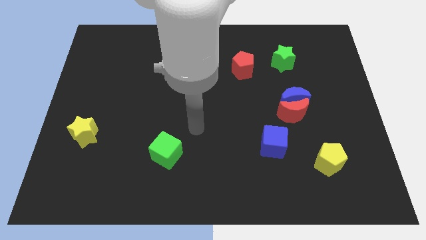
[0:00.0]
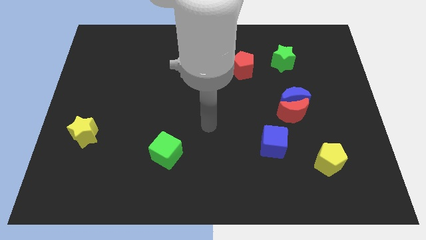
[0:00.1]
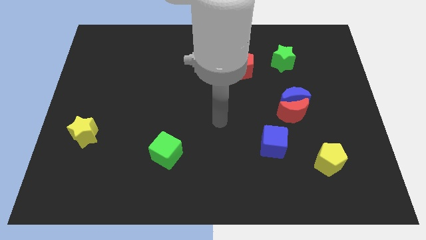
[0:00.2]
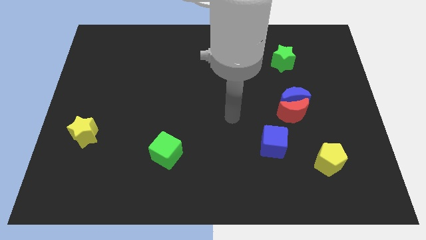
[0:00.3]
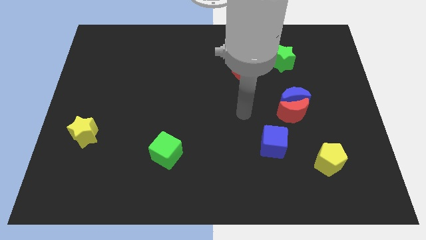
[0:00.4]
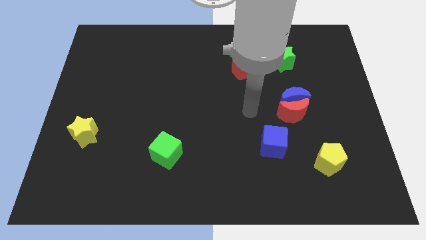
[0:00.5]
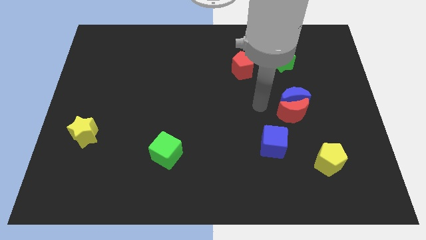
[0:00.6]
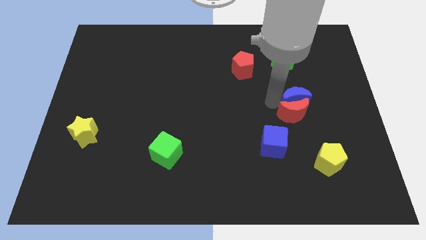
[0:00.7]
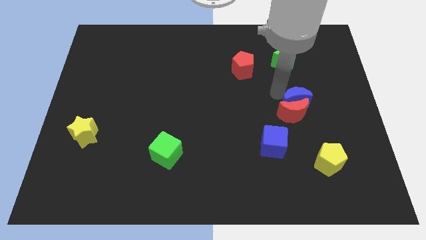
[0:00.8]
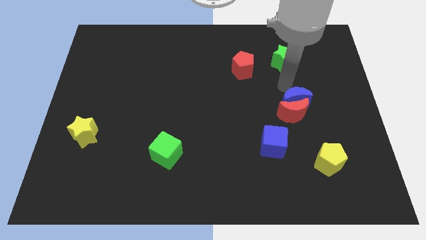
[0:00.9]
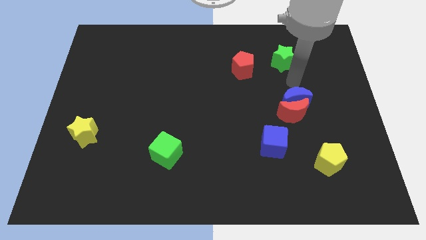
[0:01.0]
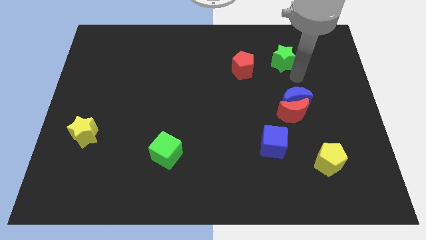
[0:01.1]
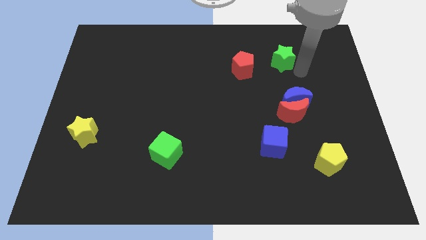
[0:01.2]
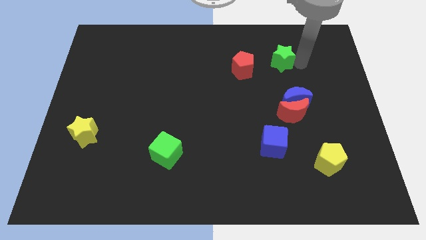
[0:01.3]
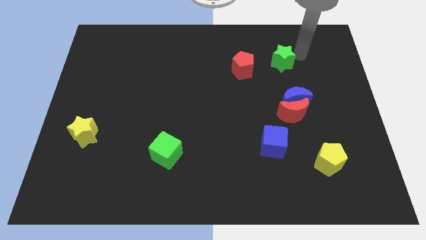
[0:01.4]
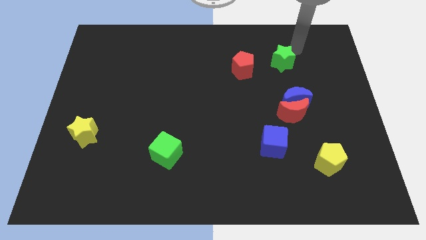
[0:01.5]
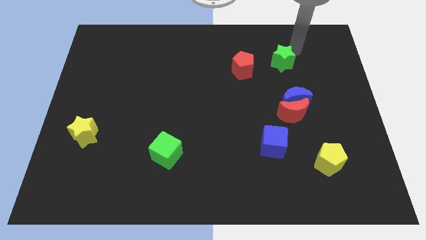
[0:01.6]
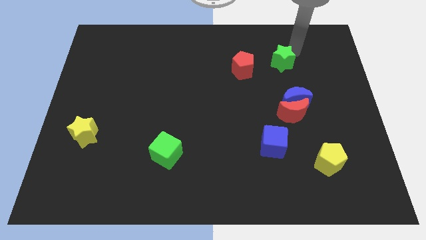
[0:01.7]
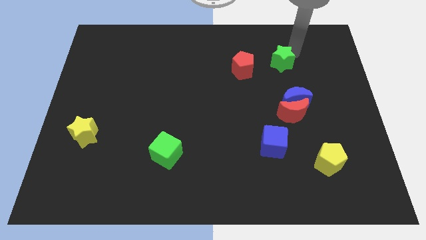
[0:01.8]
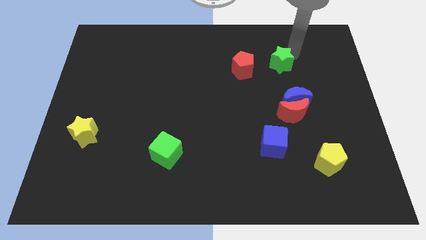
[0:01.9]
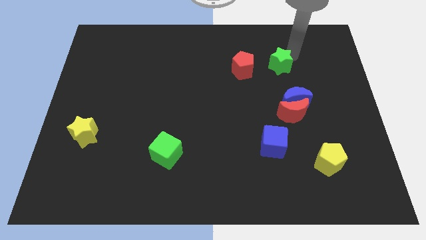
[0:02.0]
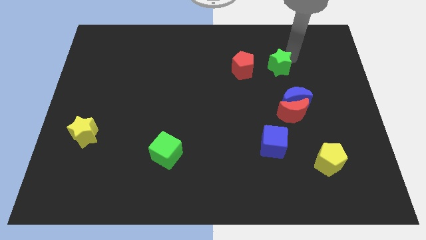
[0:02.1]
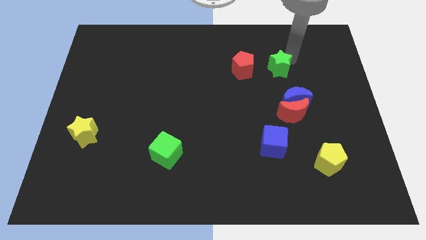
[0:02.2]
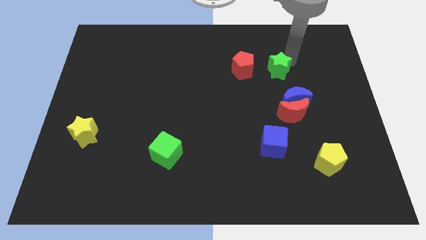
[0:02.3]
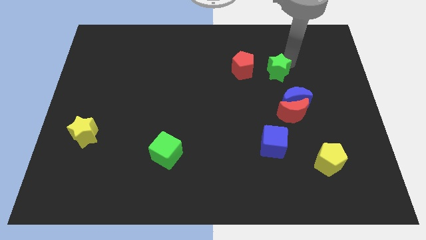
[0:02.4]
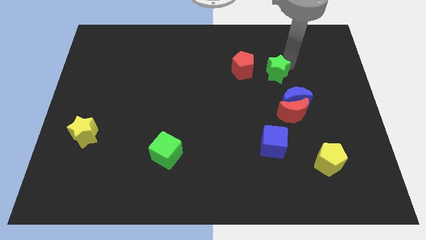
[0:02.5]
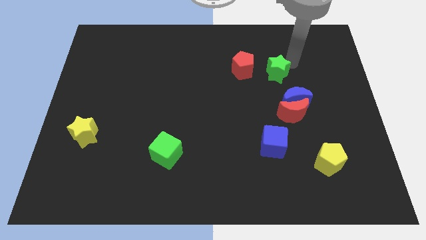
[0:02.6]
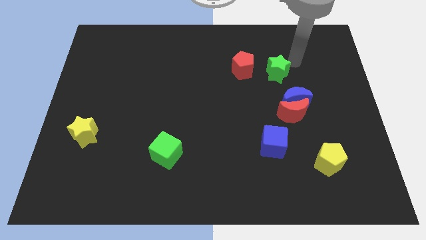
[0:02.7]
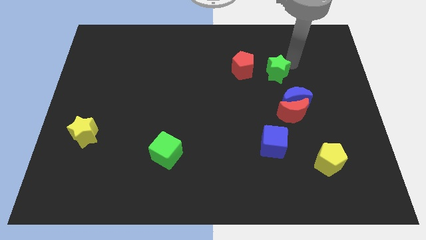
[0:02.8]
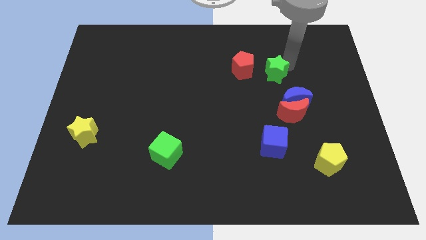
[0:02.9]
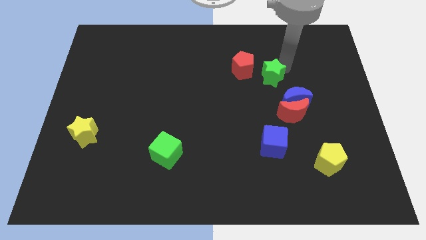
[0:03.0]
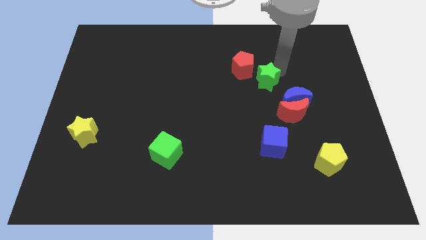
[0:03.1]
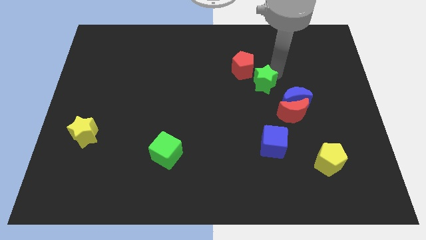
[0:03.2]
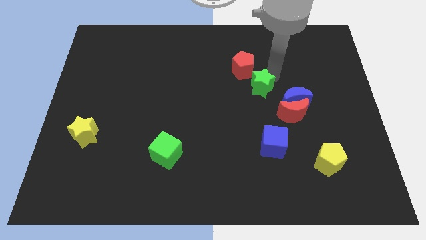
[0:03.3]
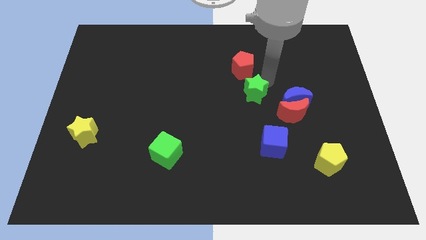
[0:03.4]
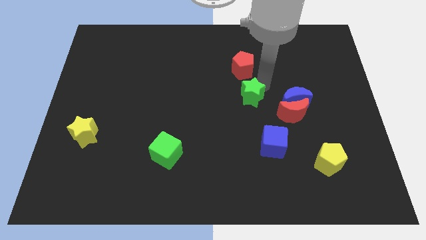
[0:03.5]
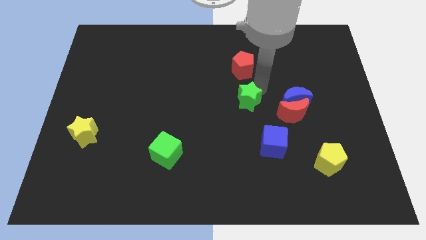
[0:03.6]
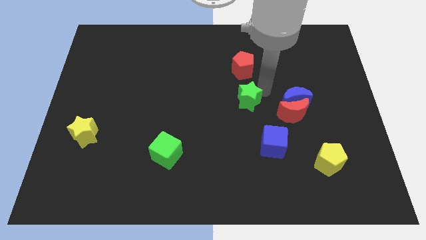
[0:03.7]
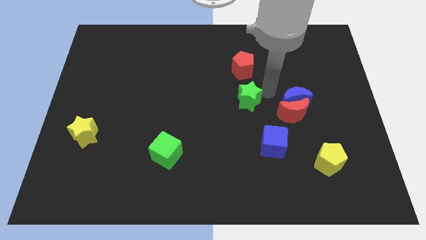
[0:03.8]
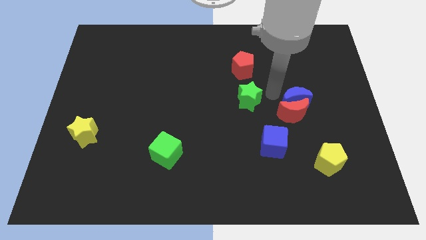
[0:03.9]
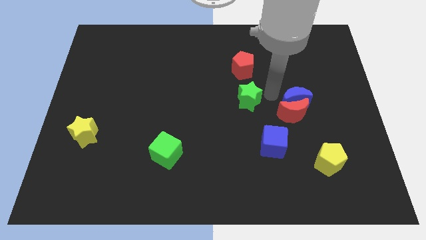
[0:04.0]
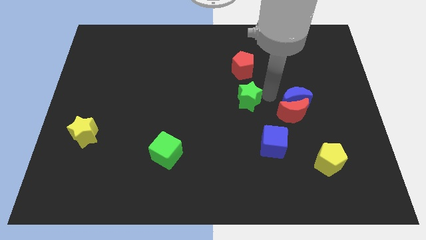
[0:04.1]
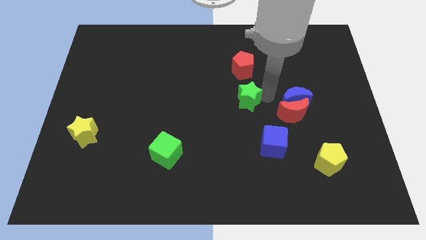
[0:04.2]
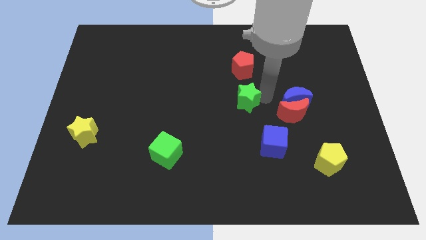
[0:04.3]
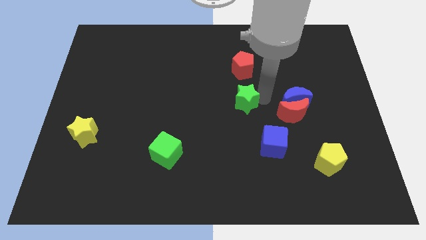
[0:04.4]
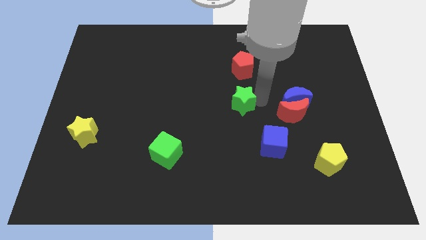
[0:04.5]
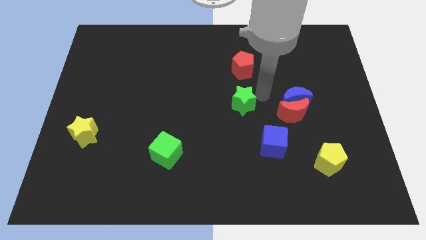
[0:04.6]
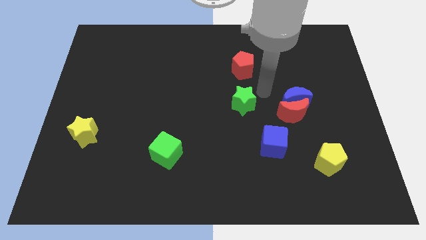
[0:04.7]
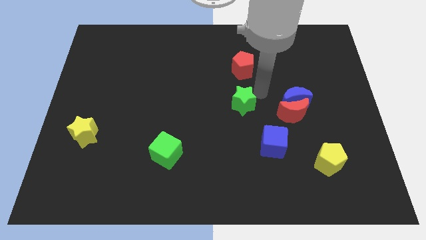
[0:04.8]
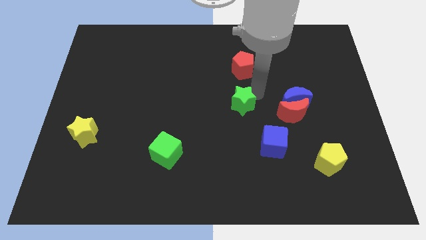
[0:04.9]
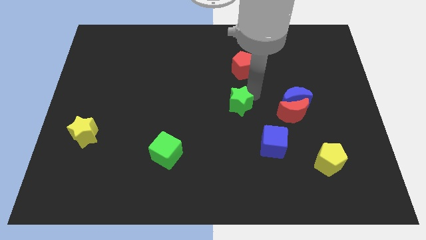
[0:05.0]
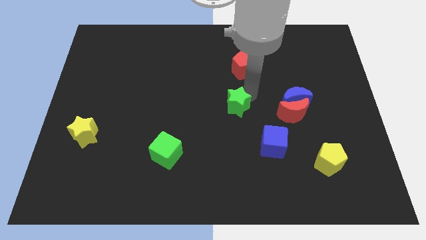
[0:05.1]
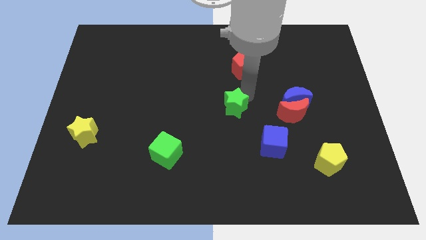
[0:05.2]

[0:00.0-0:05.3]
push the green star downwards and to the left diagonally

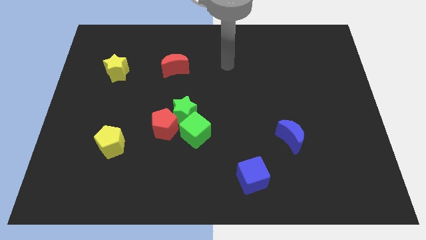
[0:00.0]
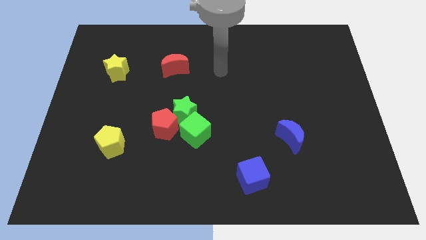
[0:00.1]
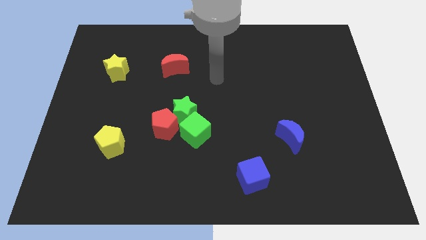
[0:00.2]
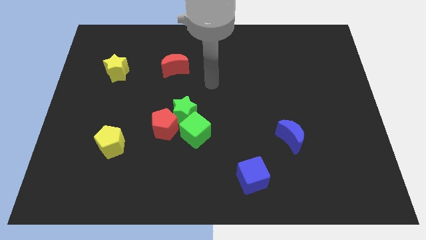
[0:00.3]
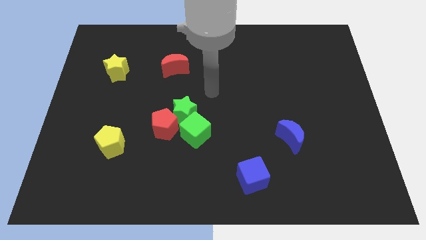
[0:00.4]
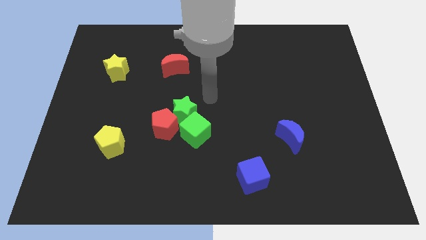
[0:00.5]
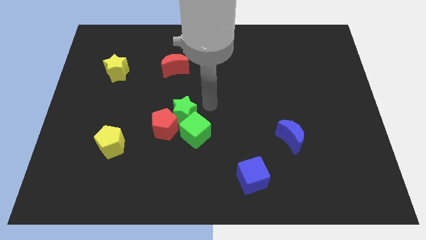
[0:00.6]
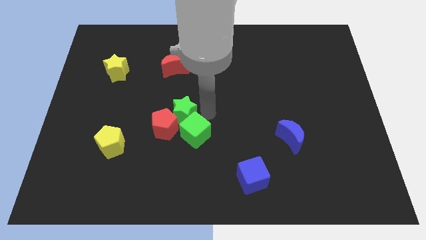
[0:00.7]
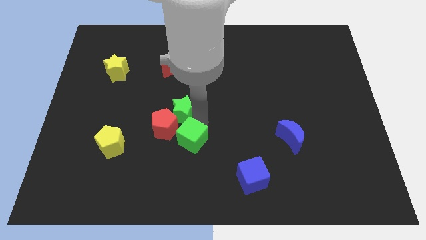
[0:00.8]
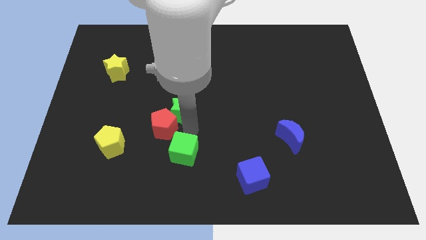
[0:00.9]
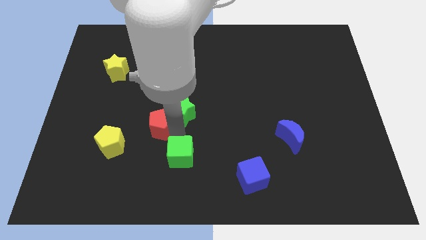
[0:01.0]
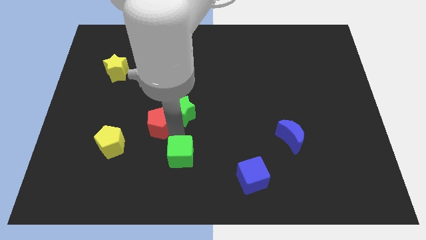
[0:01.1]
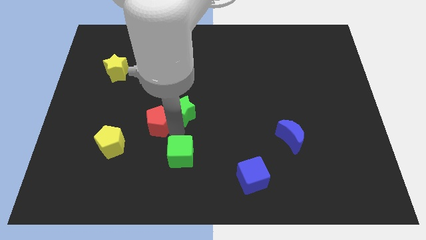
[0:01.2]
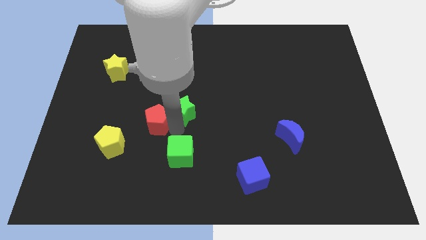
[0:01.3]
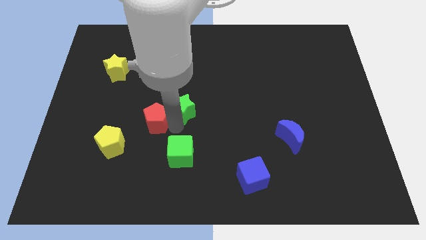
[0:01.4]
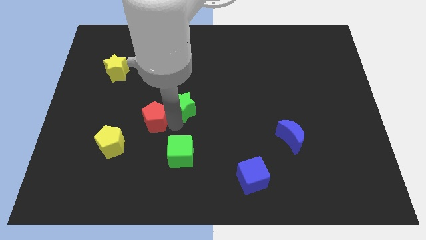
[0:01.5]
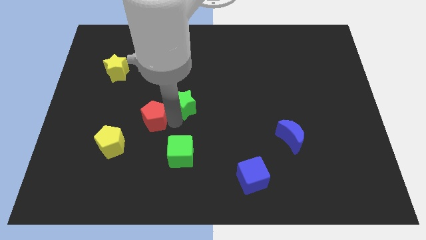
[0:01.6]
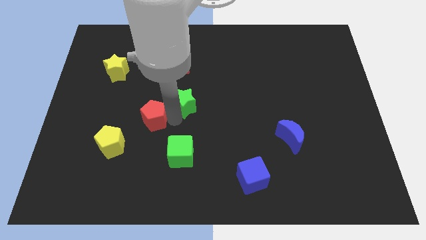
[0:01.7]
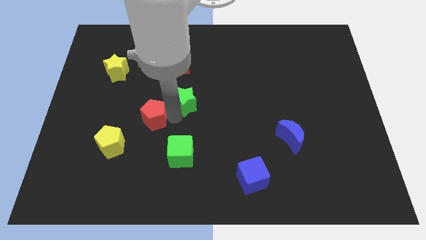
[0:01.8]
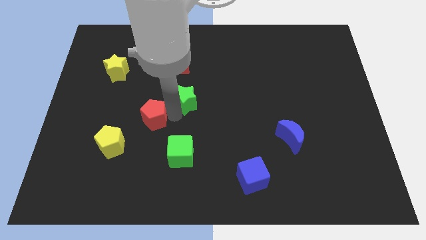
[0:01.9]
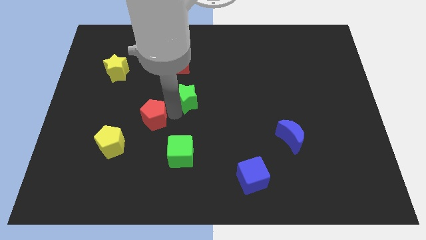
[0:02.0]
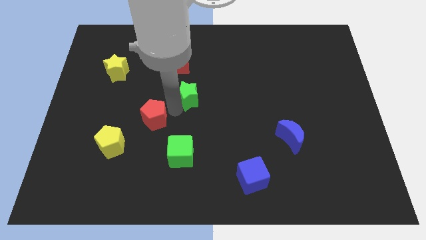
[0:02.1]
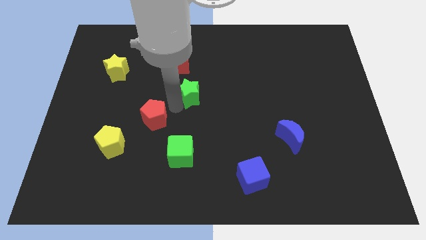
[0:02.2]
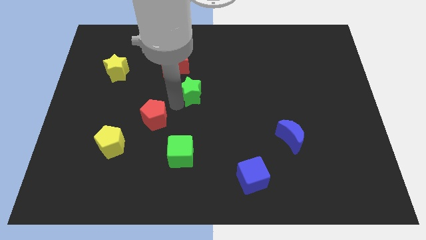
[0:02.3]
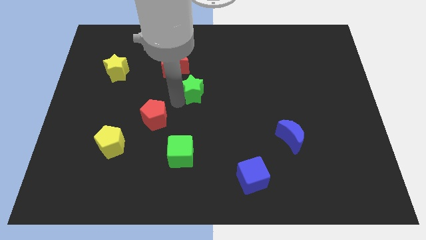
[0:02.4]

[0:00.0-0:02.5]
slide the green star upwards a bit

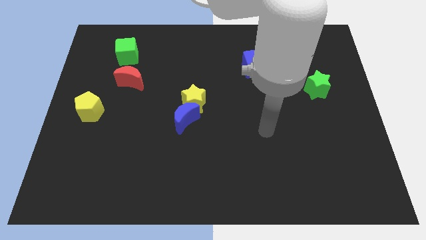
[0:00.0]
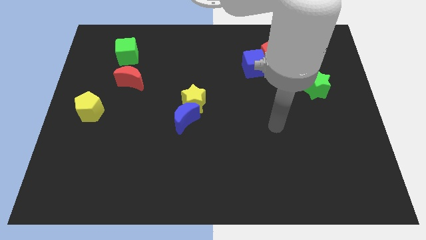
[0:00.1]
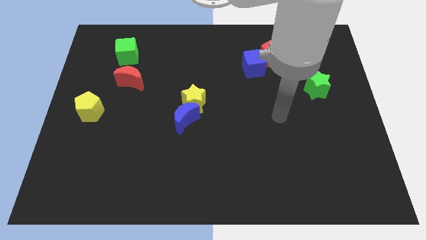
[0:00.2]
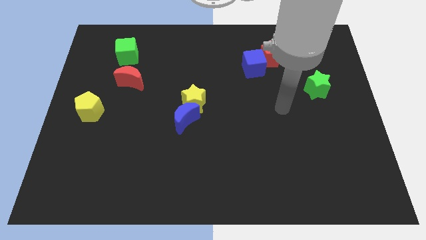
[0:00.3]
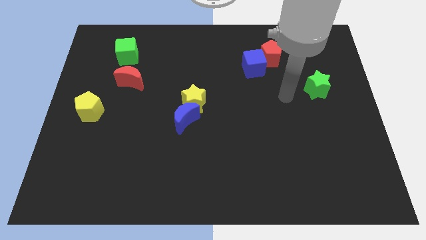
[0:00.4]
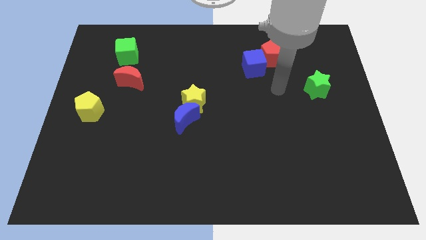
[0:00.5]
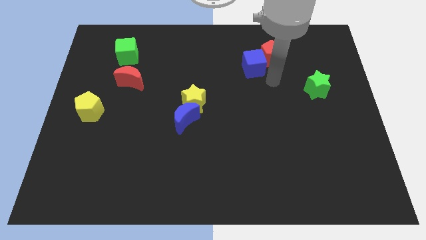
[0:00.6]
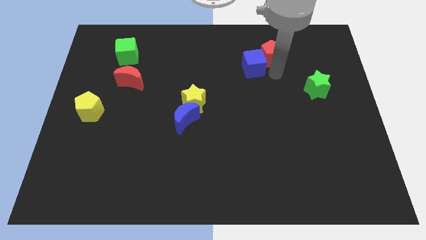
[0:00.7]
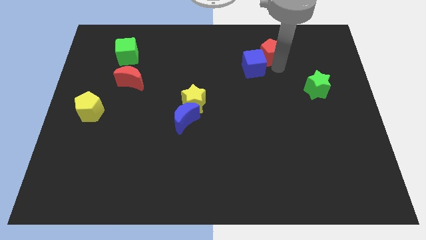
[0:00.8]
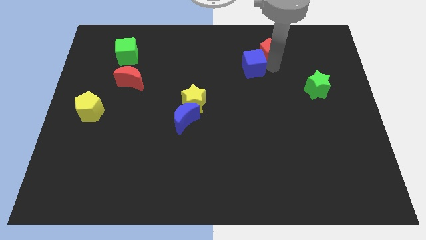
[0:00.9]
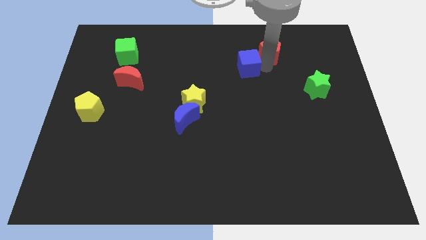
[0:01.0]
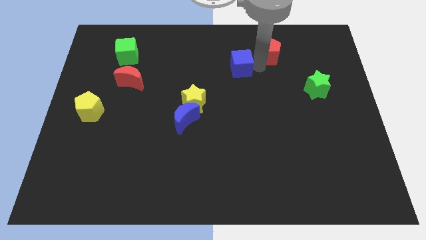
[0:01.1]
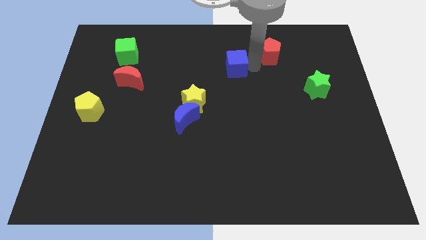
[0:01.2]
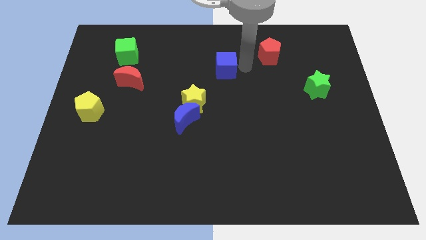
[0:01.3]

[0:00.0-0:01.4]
slide the blue cube left a little
